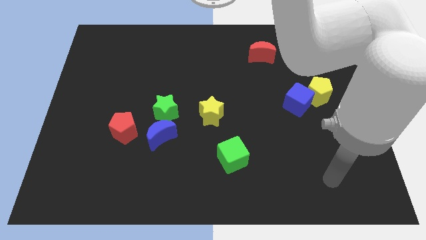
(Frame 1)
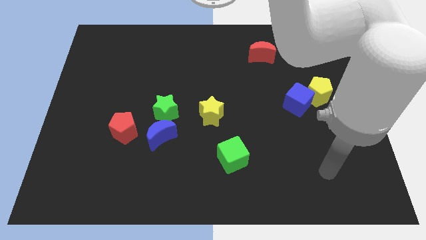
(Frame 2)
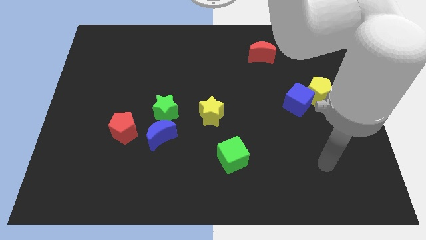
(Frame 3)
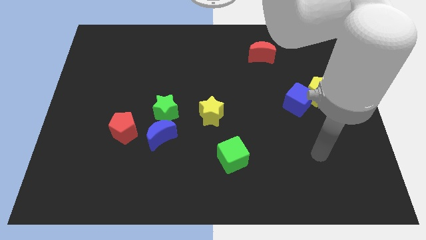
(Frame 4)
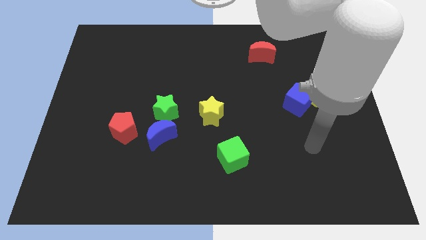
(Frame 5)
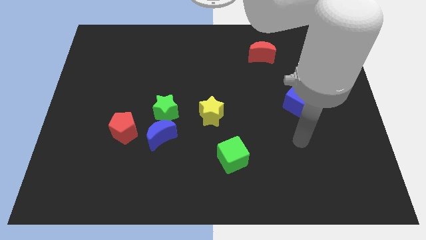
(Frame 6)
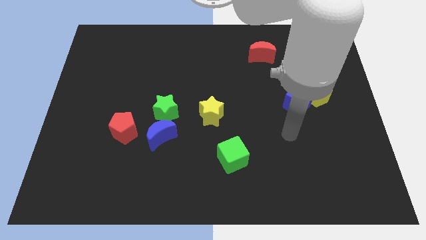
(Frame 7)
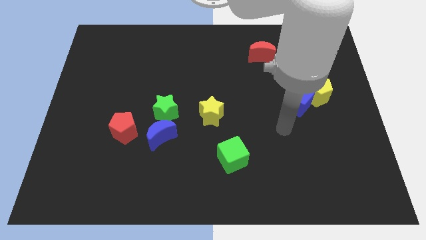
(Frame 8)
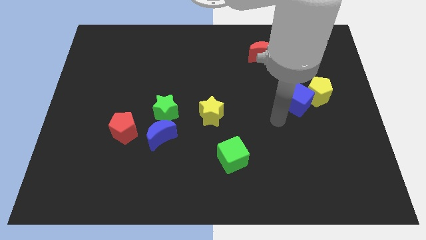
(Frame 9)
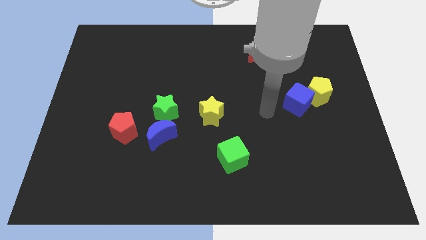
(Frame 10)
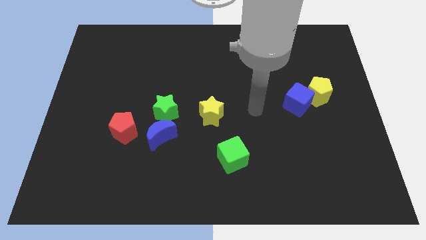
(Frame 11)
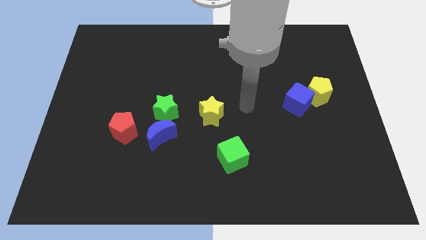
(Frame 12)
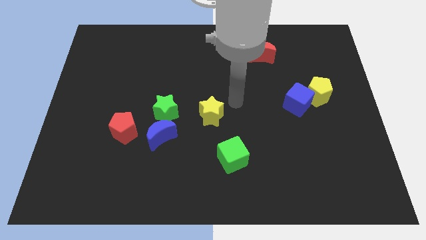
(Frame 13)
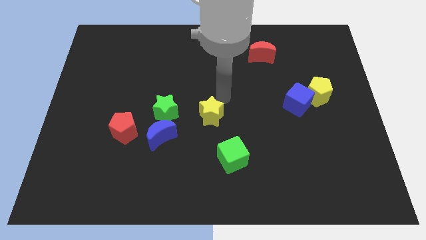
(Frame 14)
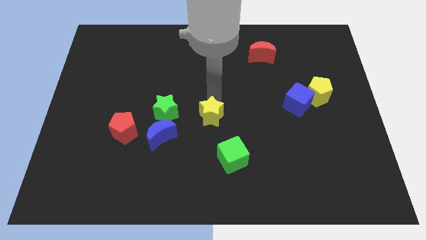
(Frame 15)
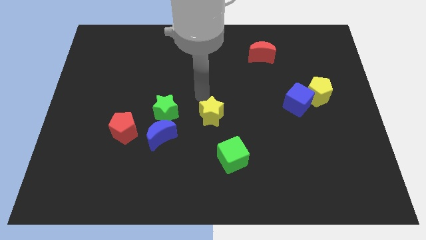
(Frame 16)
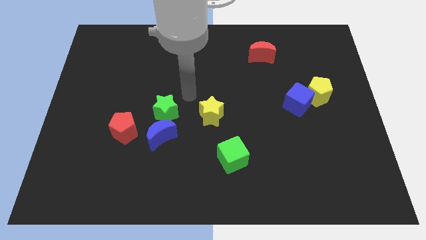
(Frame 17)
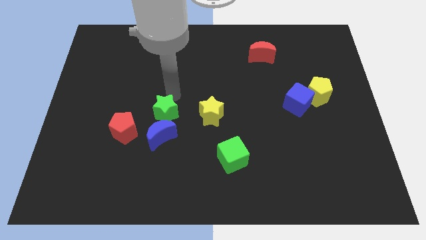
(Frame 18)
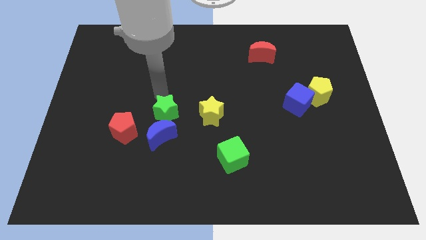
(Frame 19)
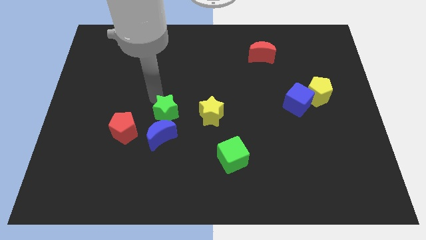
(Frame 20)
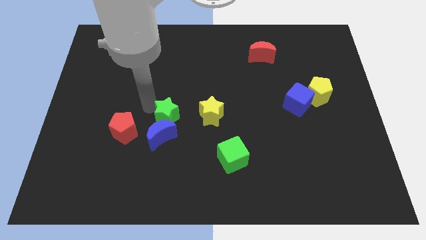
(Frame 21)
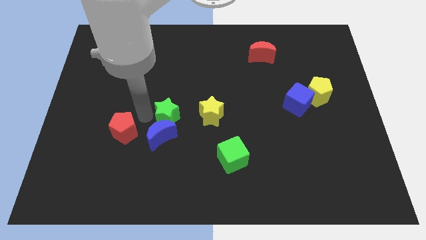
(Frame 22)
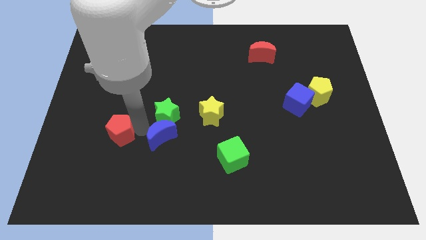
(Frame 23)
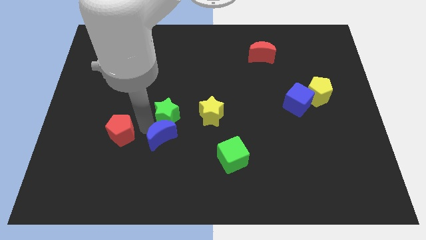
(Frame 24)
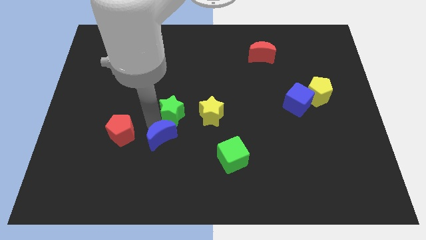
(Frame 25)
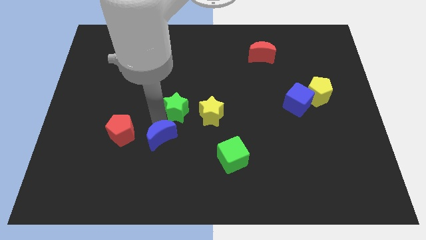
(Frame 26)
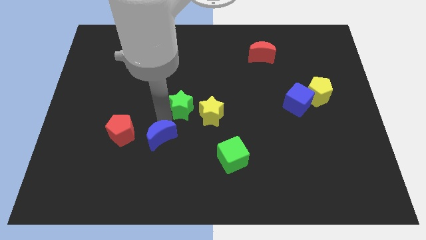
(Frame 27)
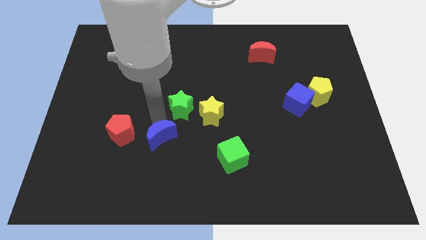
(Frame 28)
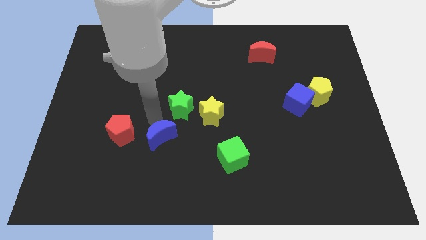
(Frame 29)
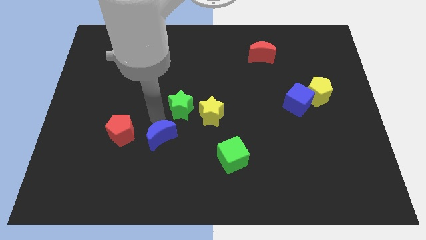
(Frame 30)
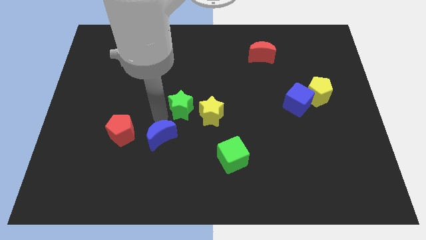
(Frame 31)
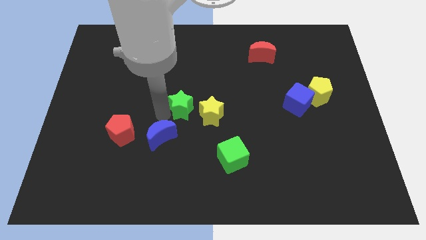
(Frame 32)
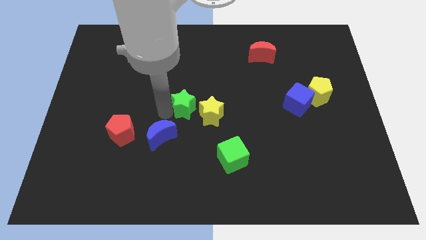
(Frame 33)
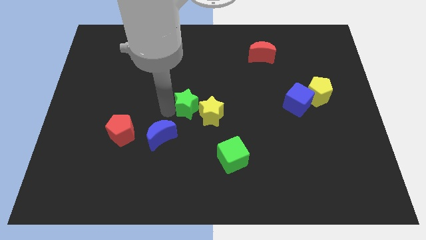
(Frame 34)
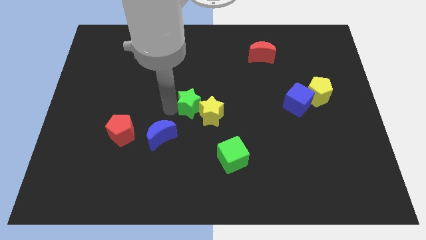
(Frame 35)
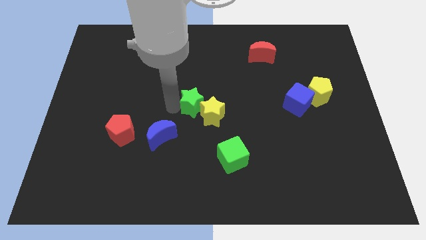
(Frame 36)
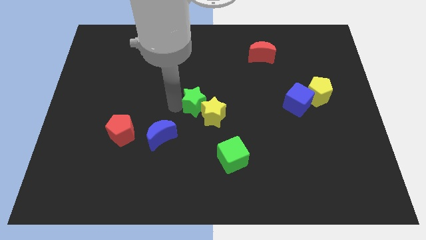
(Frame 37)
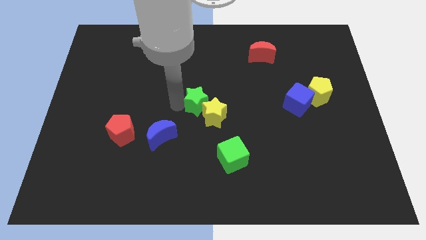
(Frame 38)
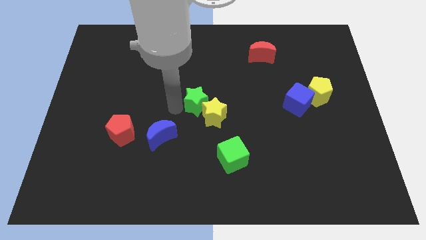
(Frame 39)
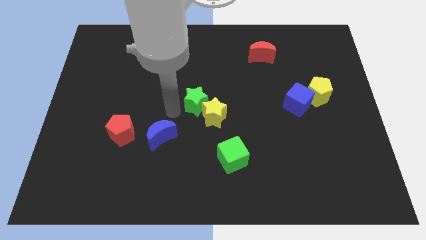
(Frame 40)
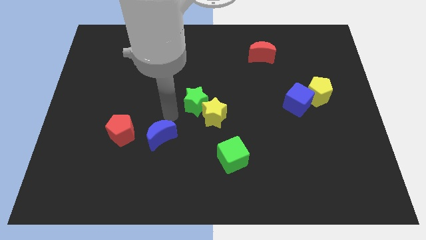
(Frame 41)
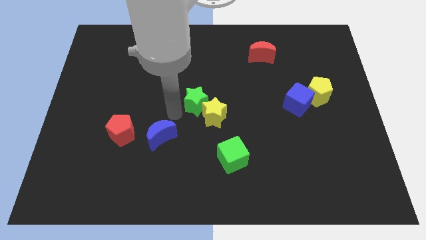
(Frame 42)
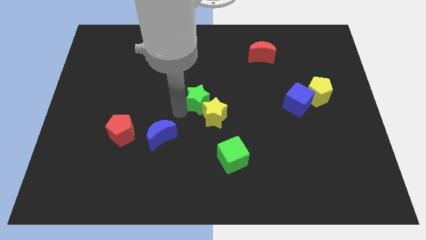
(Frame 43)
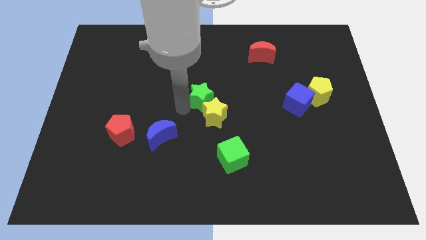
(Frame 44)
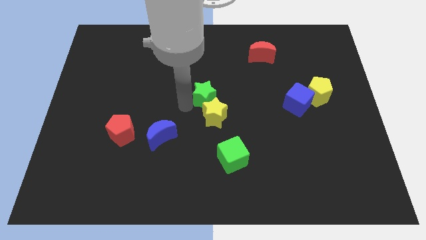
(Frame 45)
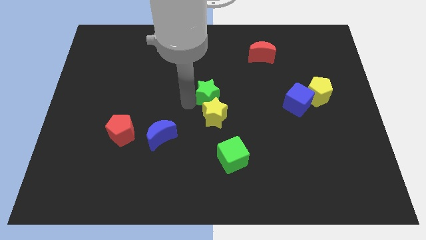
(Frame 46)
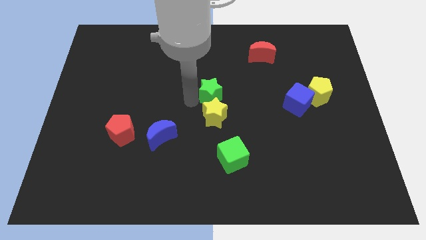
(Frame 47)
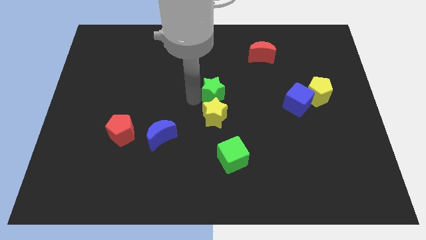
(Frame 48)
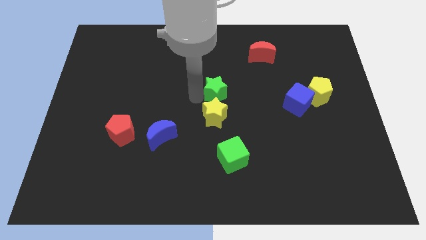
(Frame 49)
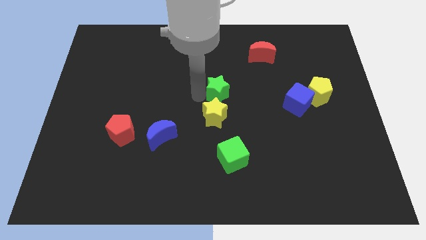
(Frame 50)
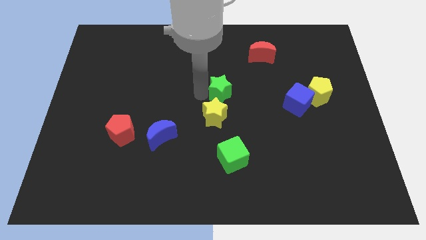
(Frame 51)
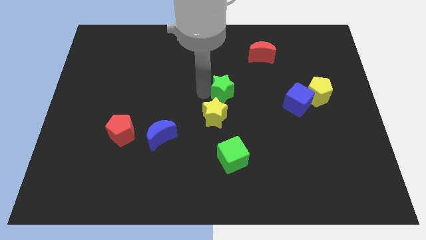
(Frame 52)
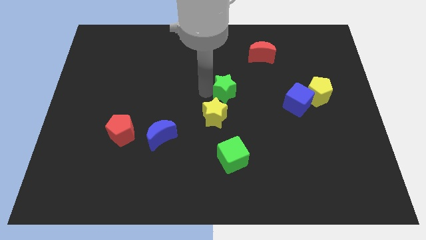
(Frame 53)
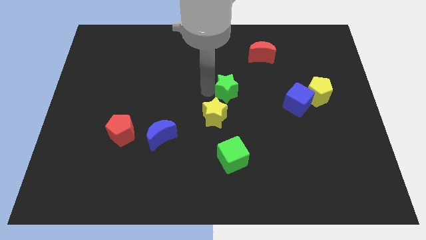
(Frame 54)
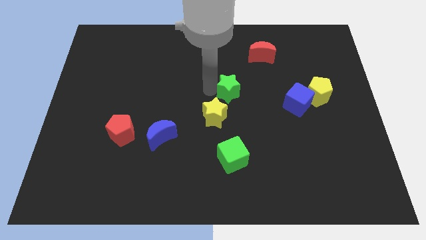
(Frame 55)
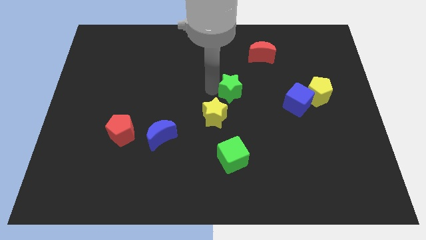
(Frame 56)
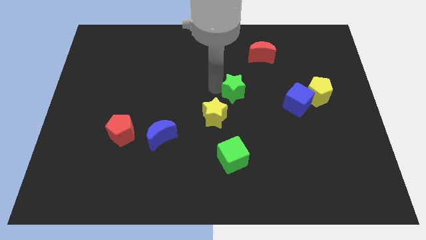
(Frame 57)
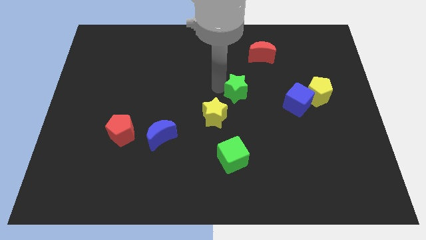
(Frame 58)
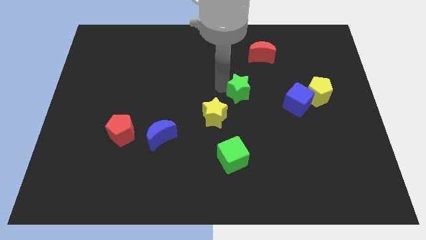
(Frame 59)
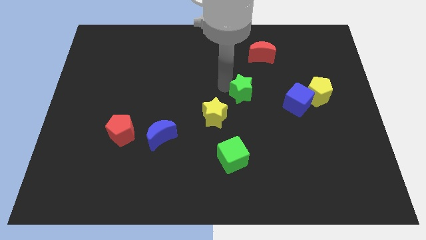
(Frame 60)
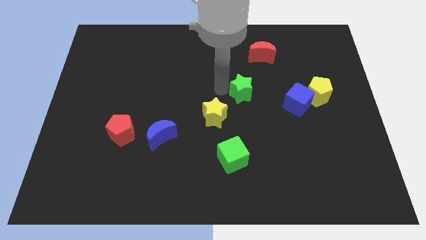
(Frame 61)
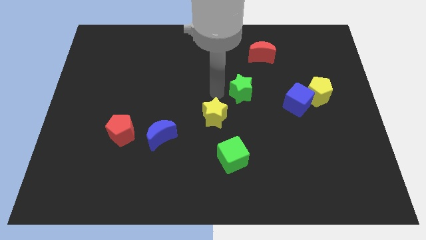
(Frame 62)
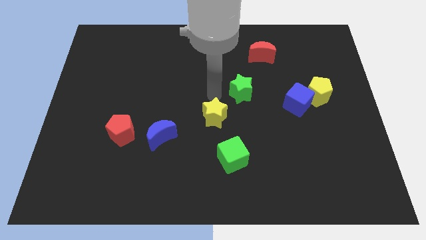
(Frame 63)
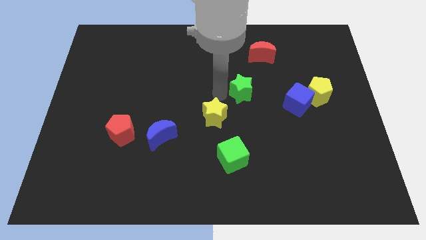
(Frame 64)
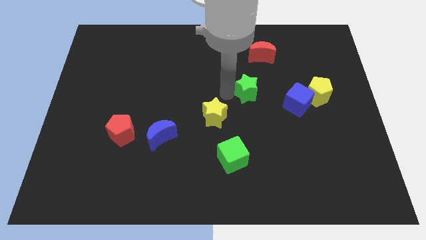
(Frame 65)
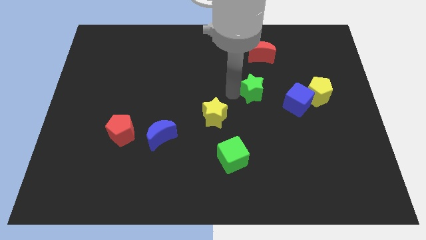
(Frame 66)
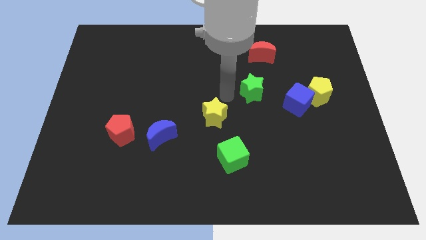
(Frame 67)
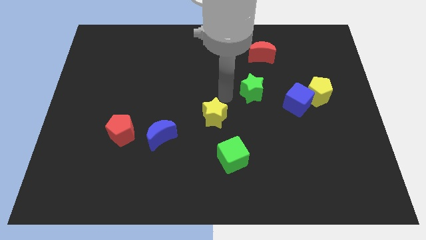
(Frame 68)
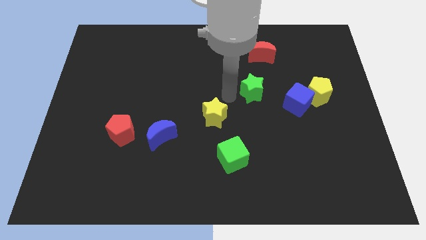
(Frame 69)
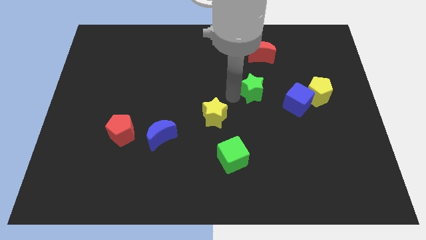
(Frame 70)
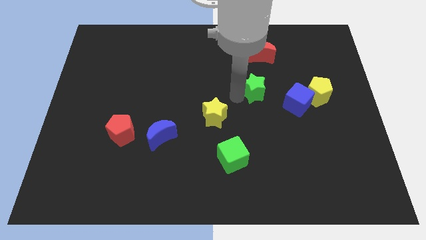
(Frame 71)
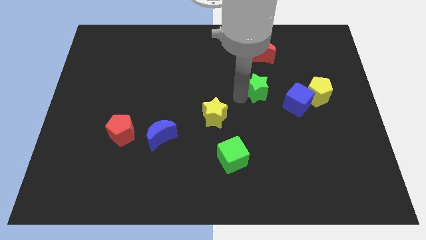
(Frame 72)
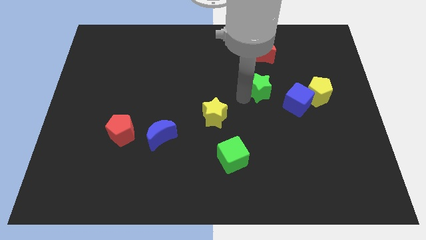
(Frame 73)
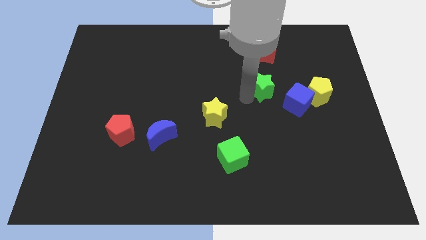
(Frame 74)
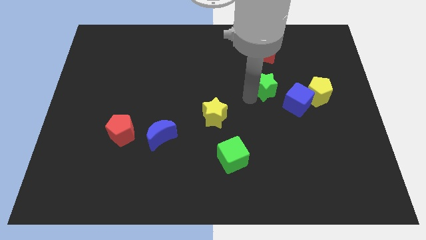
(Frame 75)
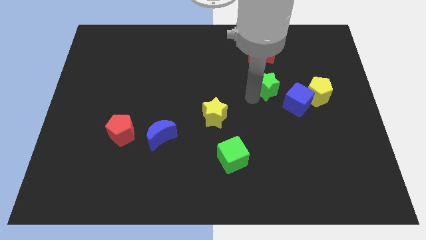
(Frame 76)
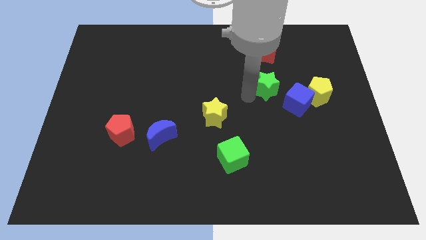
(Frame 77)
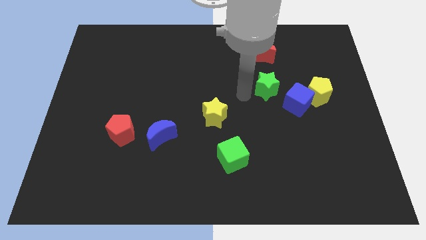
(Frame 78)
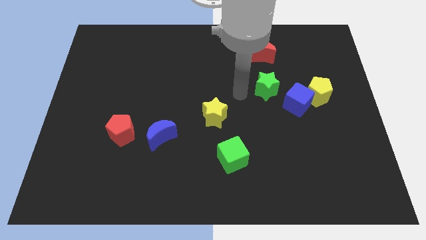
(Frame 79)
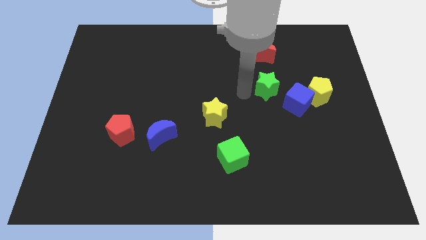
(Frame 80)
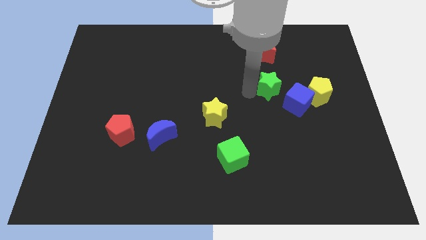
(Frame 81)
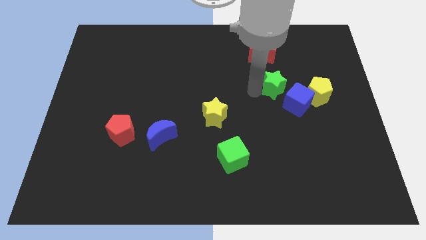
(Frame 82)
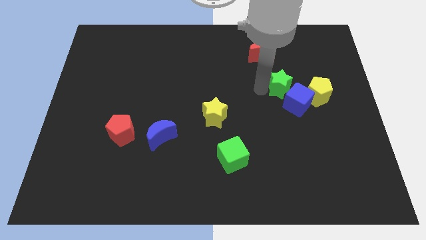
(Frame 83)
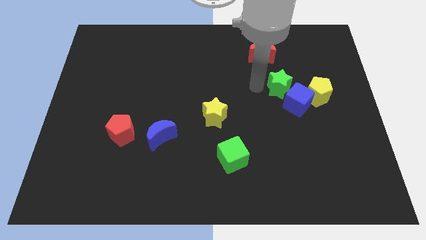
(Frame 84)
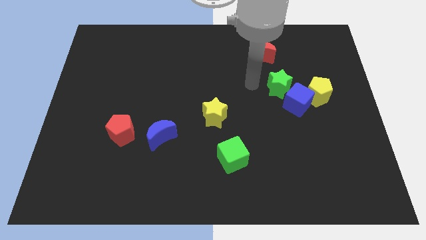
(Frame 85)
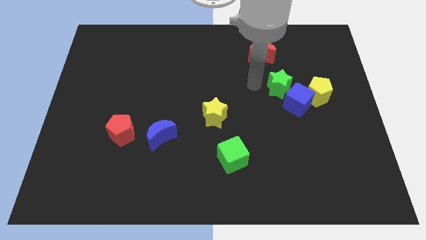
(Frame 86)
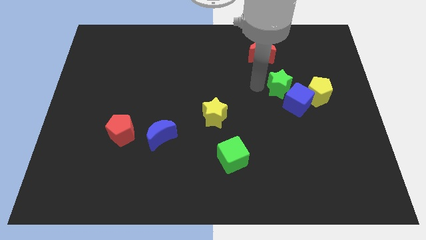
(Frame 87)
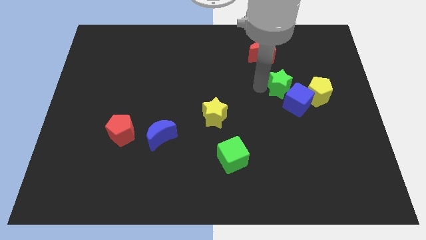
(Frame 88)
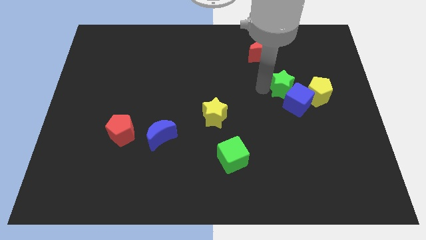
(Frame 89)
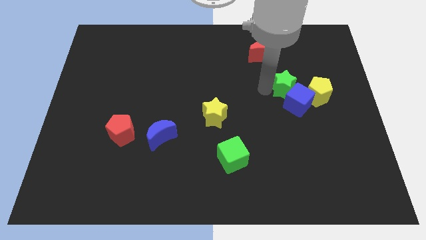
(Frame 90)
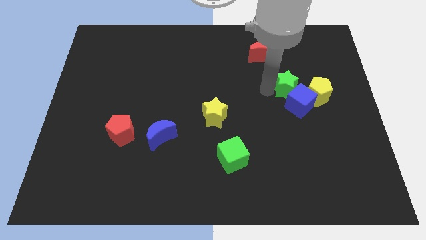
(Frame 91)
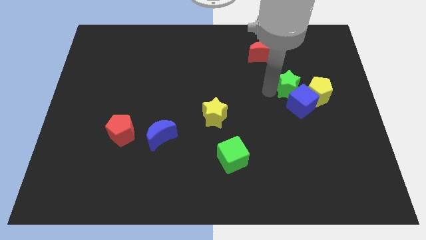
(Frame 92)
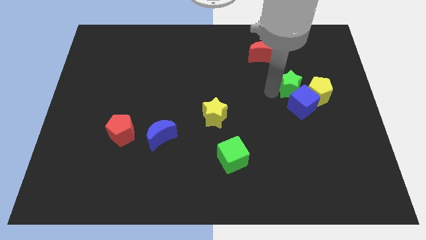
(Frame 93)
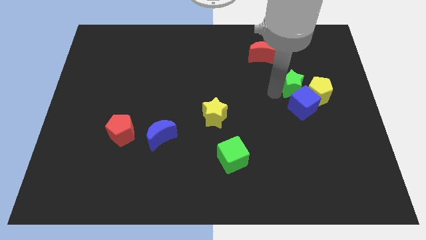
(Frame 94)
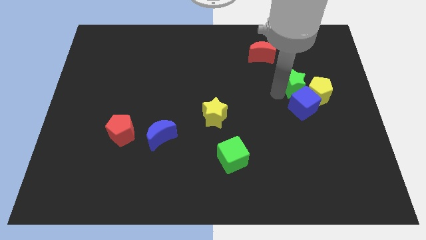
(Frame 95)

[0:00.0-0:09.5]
slide the green star to the yellow pentagon
